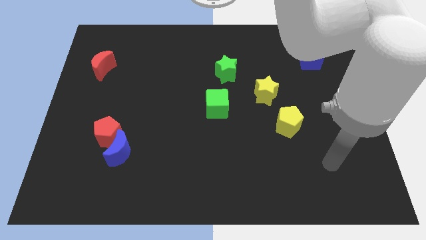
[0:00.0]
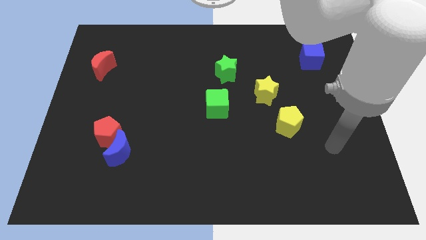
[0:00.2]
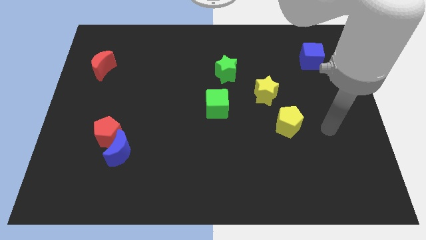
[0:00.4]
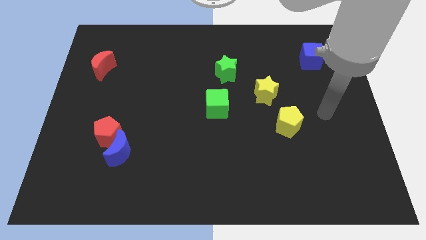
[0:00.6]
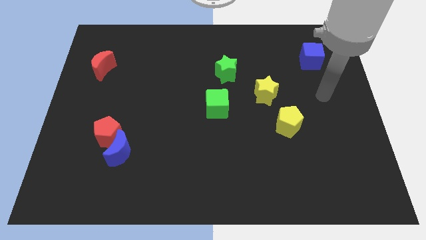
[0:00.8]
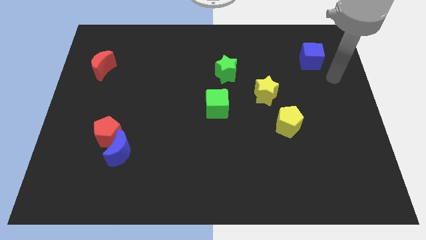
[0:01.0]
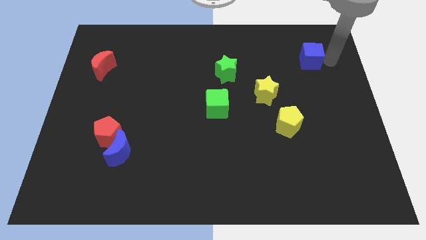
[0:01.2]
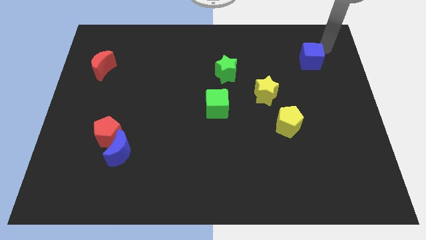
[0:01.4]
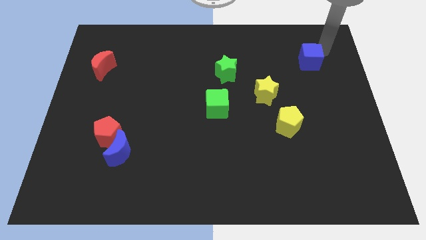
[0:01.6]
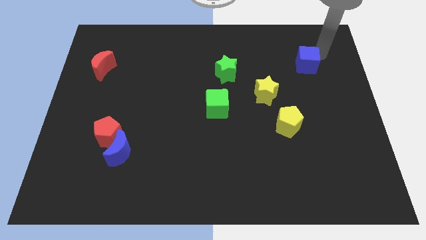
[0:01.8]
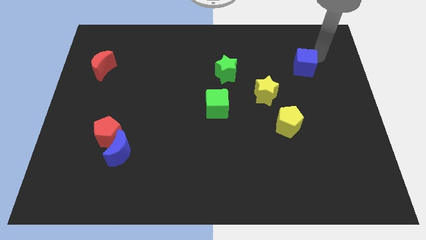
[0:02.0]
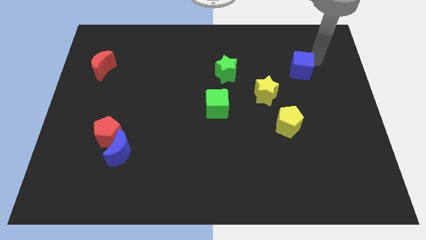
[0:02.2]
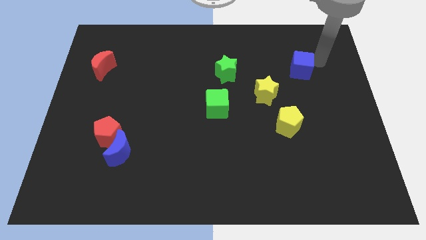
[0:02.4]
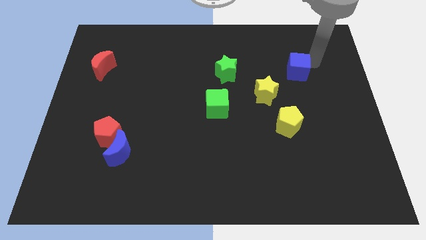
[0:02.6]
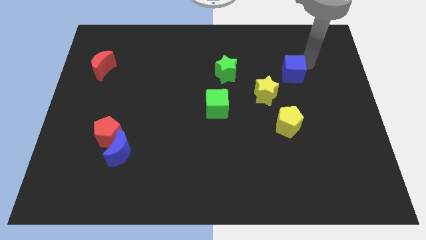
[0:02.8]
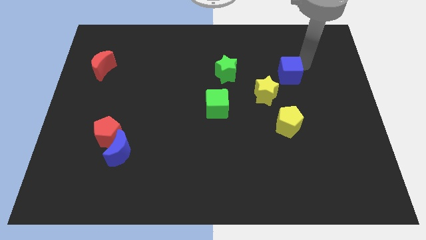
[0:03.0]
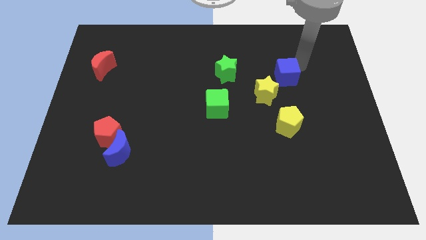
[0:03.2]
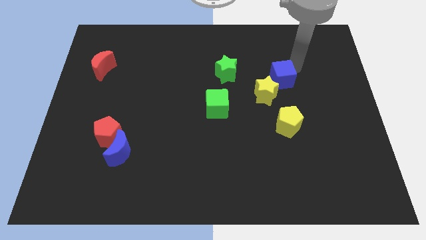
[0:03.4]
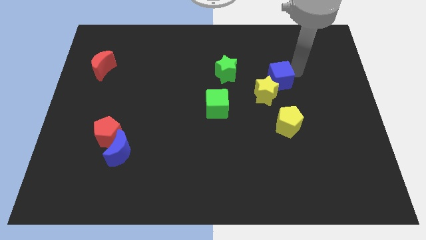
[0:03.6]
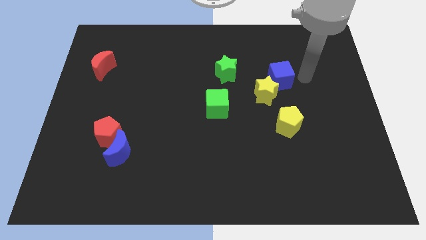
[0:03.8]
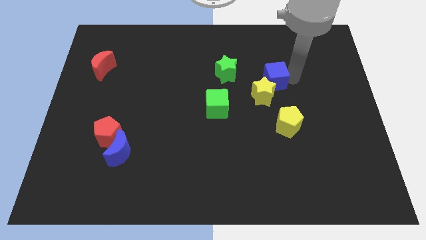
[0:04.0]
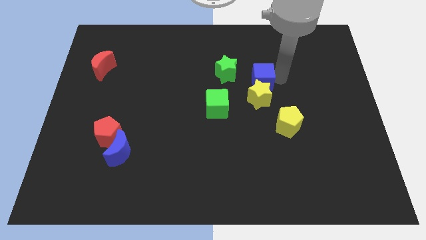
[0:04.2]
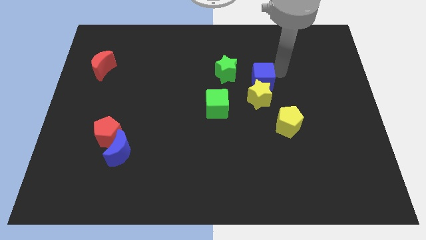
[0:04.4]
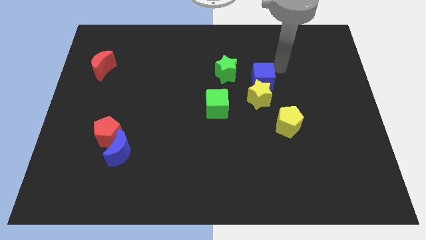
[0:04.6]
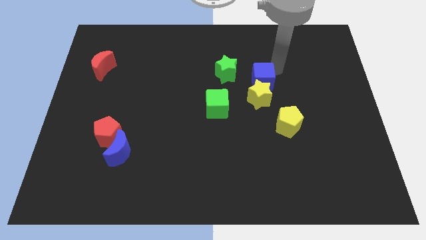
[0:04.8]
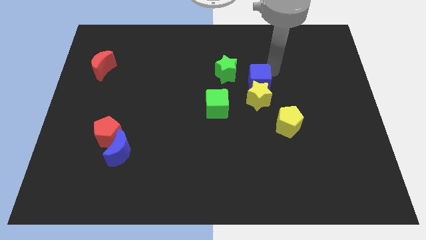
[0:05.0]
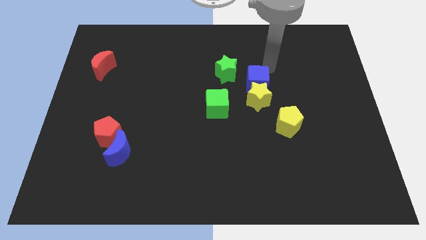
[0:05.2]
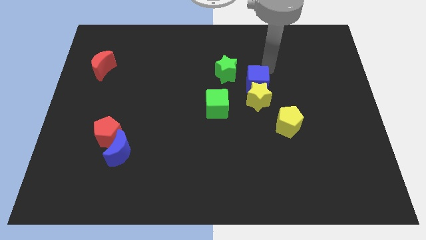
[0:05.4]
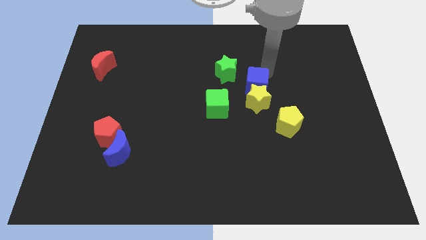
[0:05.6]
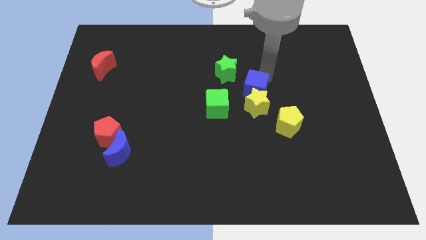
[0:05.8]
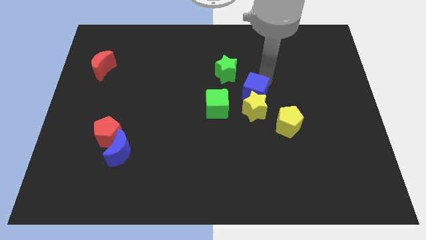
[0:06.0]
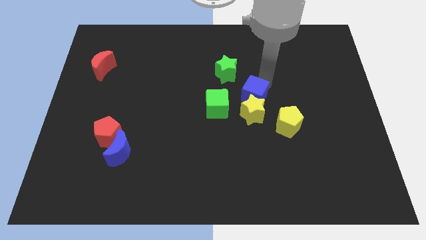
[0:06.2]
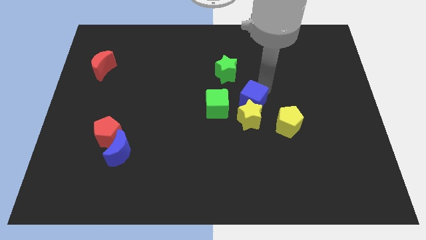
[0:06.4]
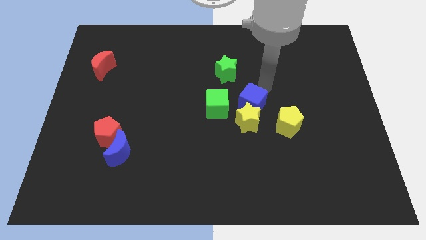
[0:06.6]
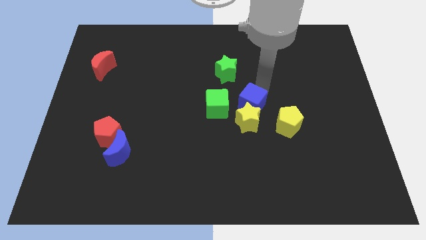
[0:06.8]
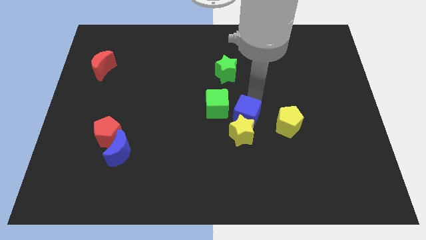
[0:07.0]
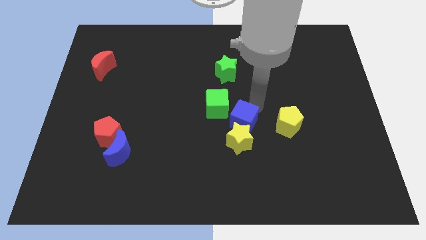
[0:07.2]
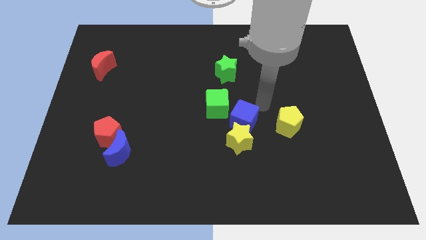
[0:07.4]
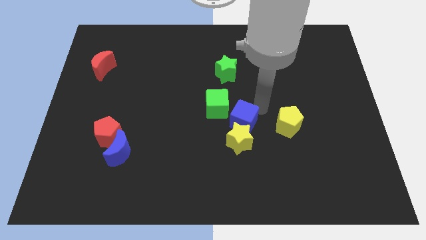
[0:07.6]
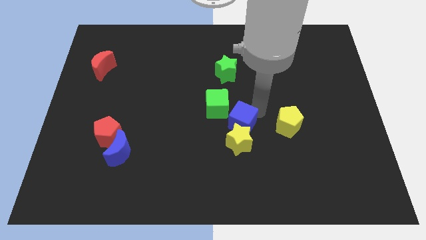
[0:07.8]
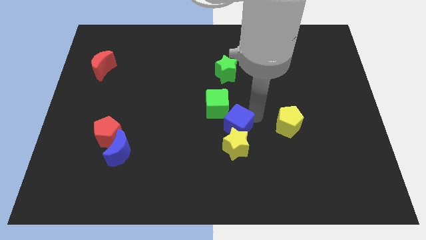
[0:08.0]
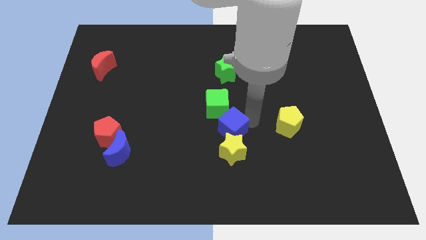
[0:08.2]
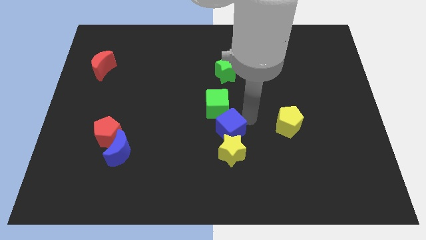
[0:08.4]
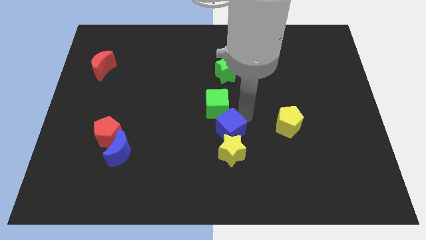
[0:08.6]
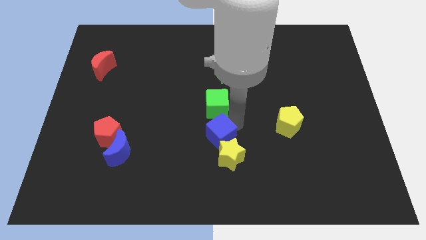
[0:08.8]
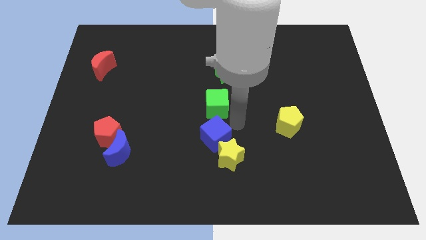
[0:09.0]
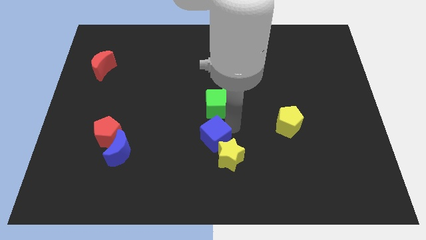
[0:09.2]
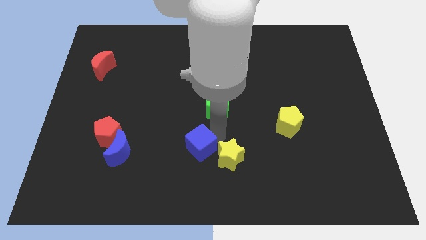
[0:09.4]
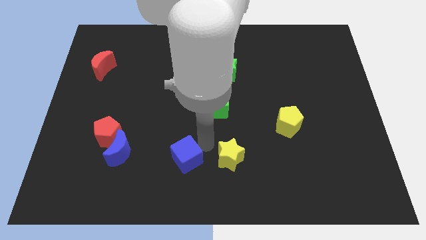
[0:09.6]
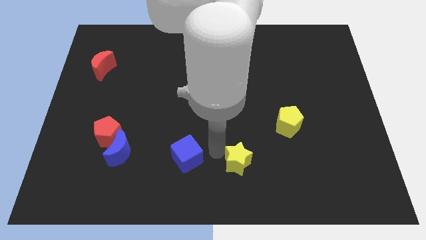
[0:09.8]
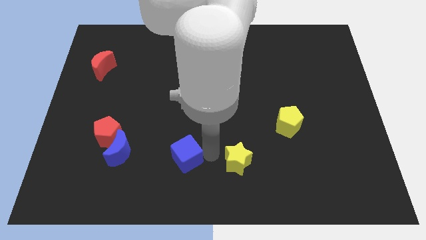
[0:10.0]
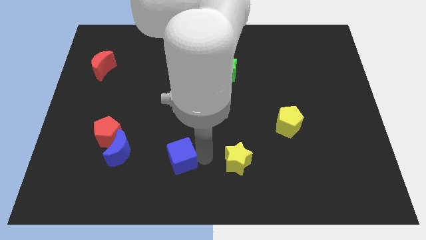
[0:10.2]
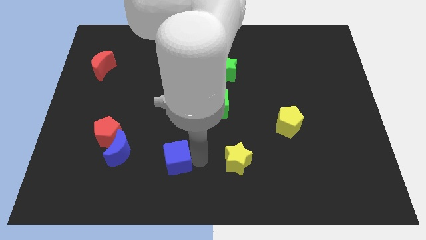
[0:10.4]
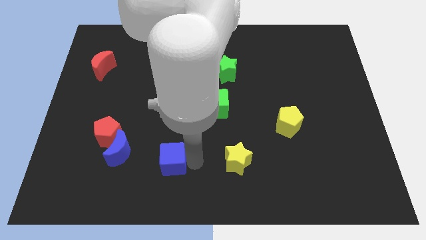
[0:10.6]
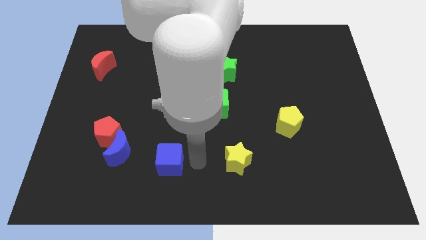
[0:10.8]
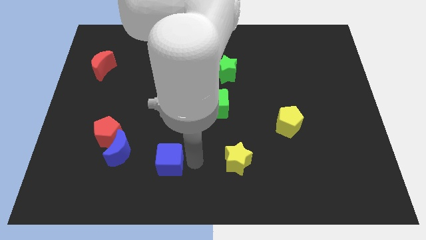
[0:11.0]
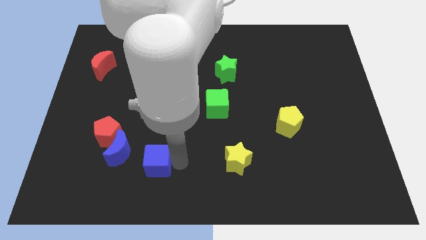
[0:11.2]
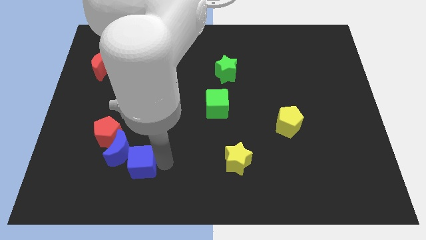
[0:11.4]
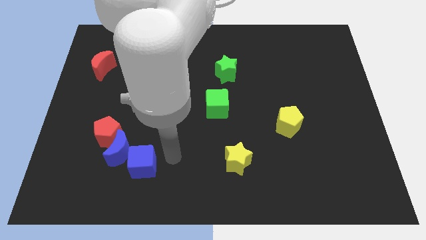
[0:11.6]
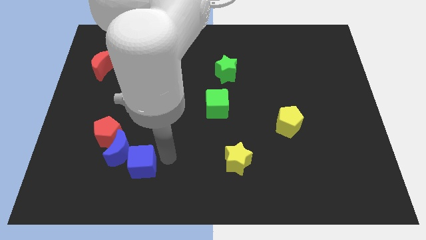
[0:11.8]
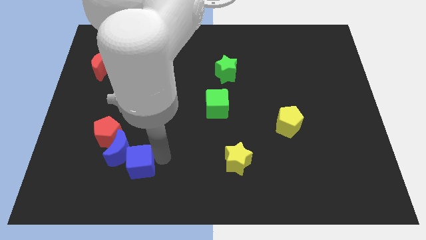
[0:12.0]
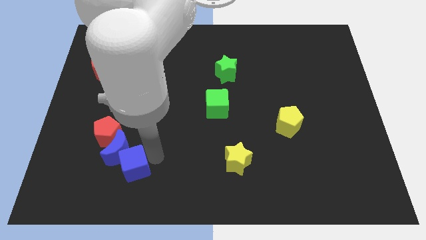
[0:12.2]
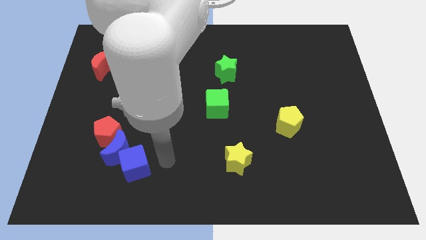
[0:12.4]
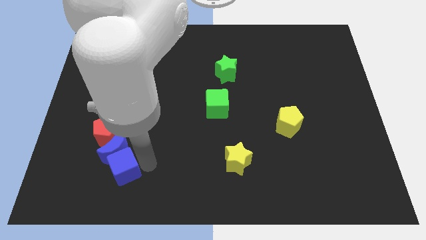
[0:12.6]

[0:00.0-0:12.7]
move the blue cube to the bottom left of the blue moon

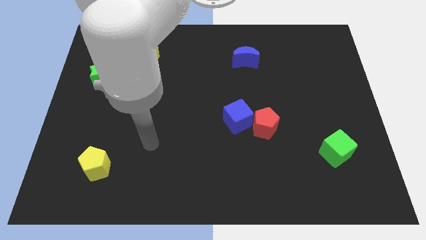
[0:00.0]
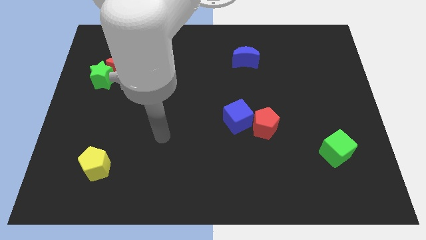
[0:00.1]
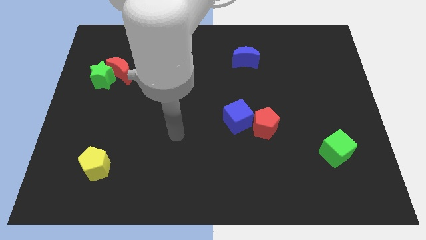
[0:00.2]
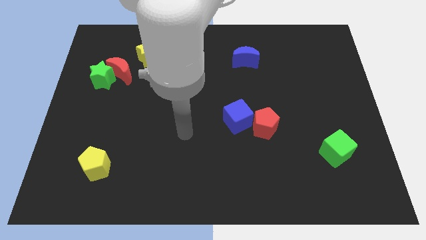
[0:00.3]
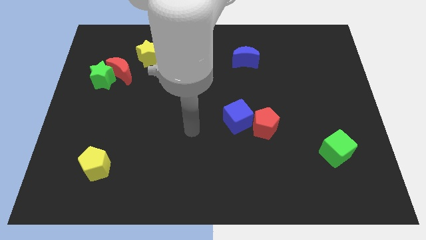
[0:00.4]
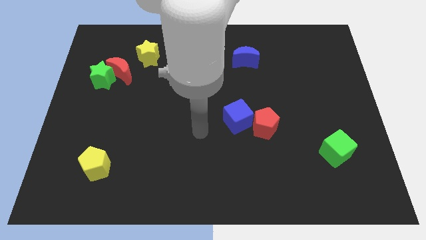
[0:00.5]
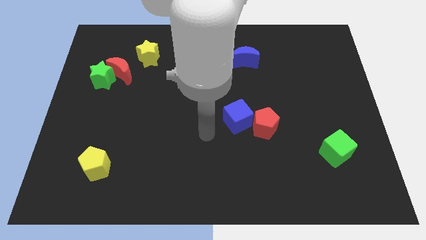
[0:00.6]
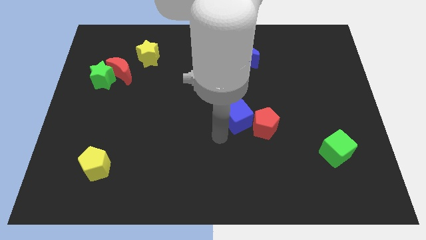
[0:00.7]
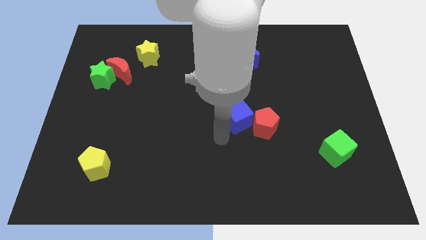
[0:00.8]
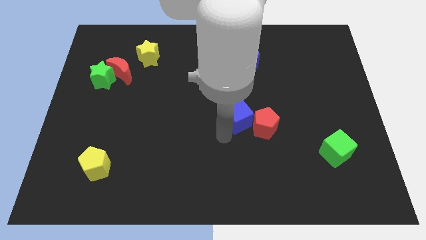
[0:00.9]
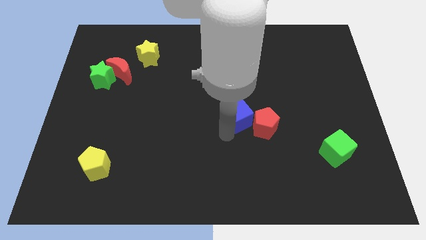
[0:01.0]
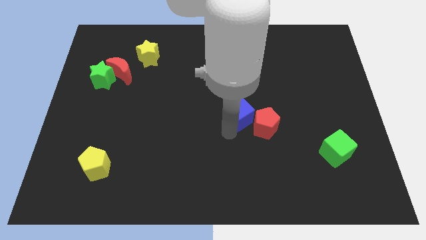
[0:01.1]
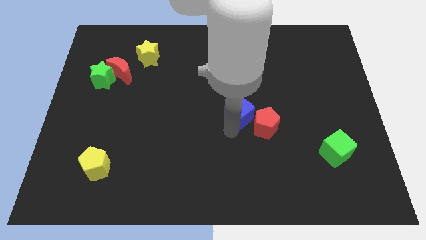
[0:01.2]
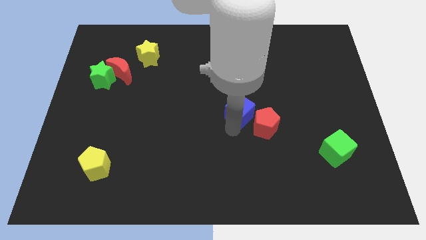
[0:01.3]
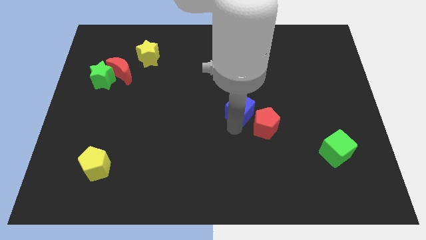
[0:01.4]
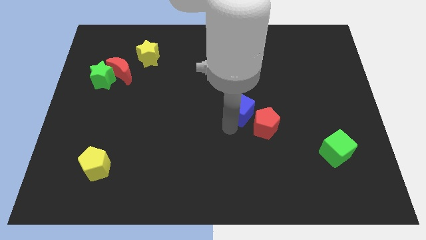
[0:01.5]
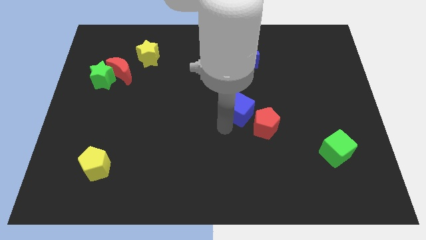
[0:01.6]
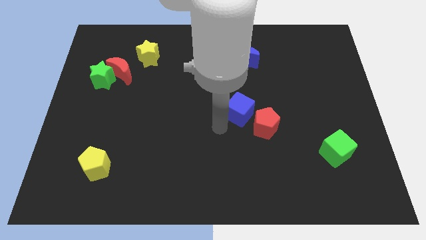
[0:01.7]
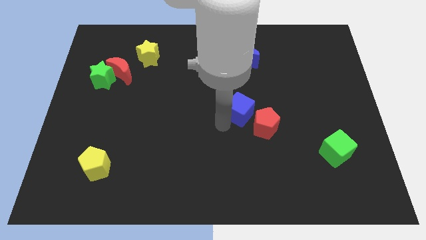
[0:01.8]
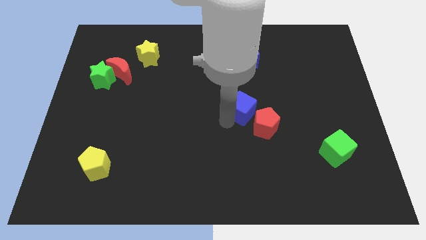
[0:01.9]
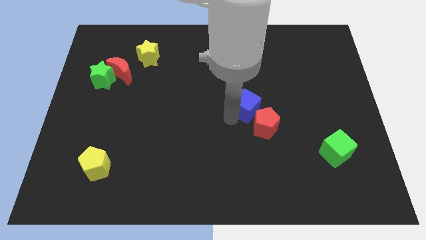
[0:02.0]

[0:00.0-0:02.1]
push the blue cube to the top side of the red pentagon
